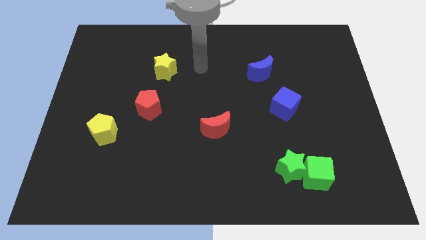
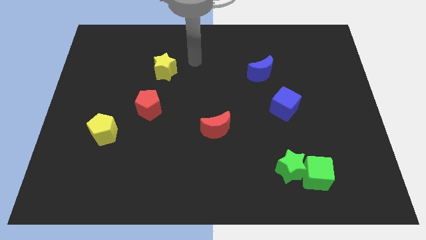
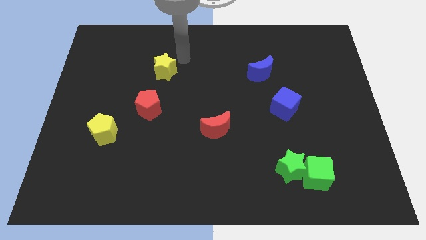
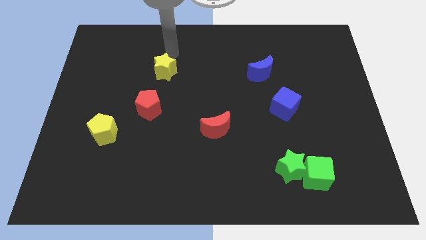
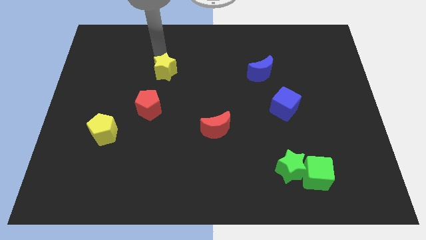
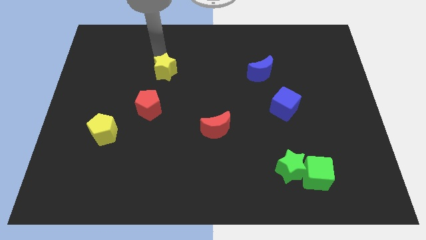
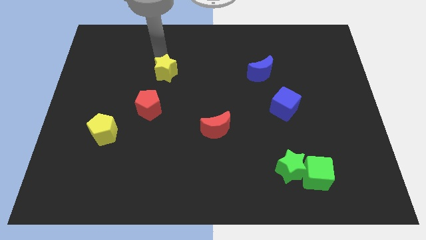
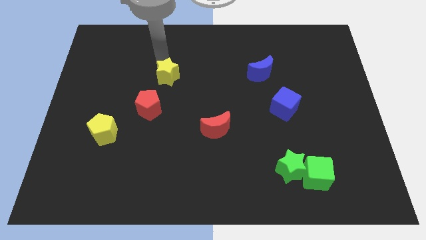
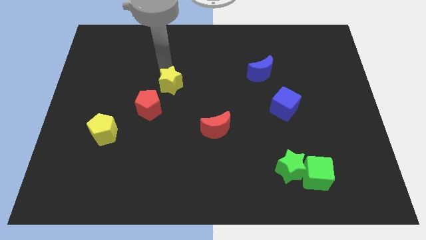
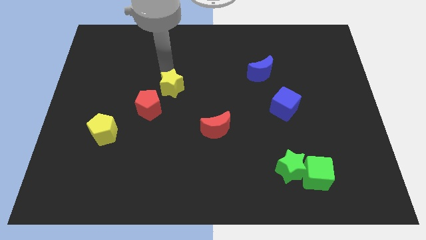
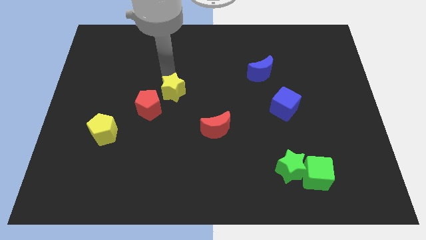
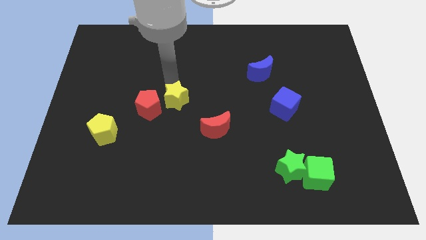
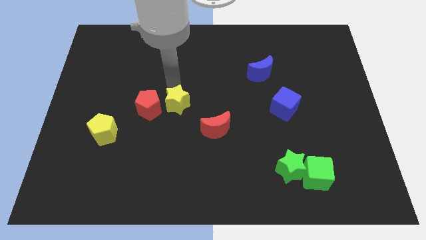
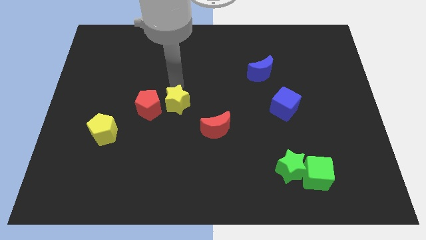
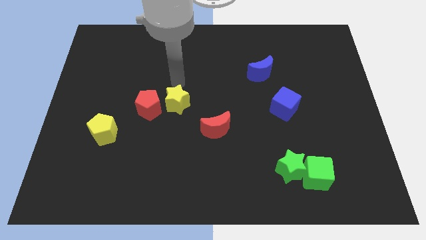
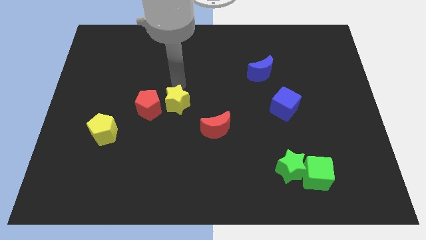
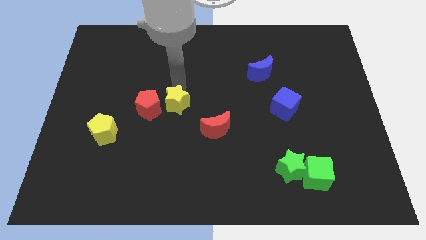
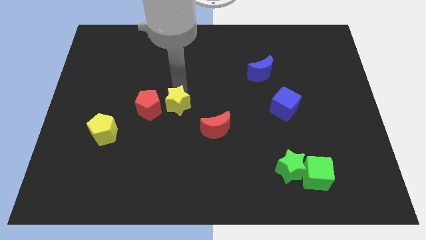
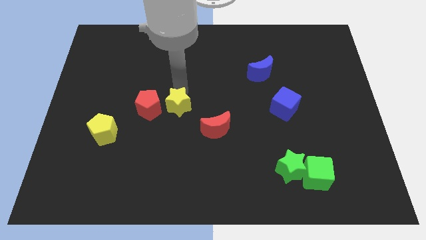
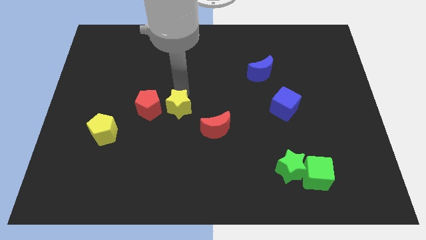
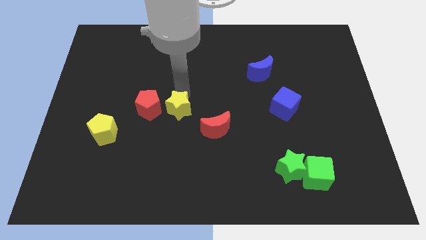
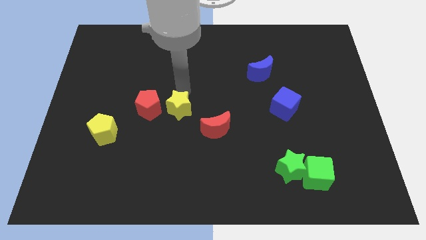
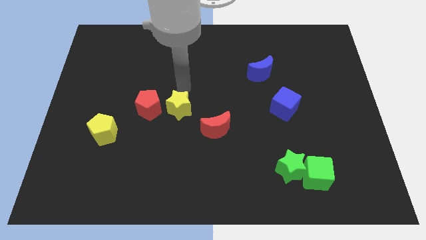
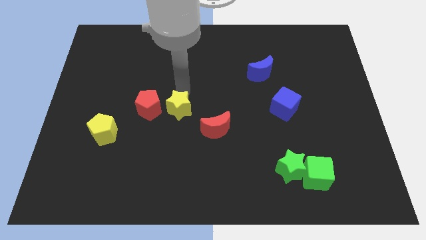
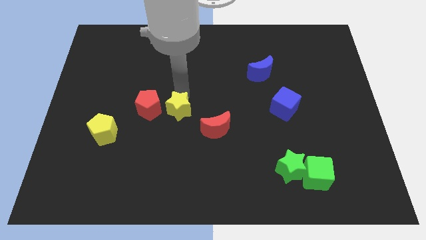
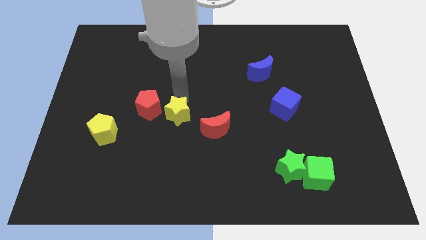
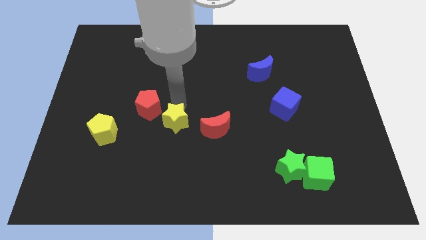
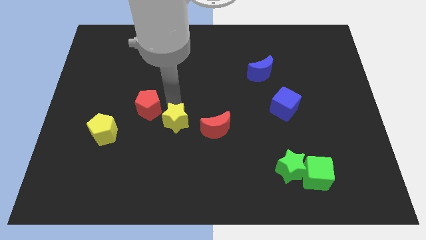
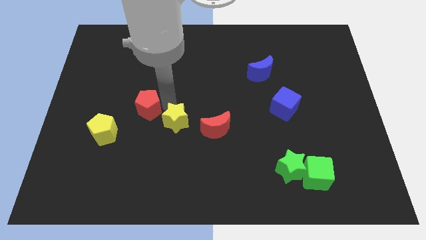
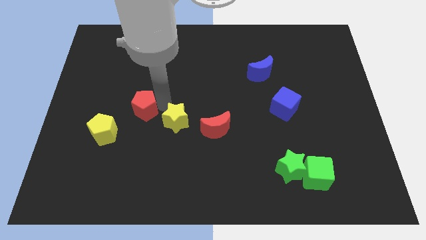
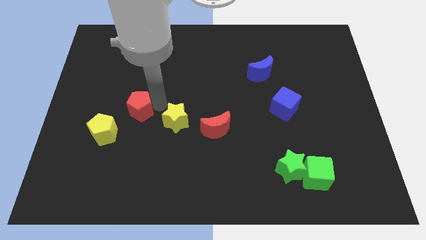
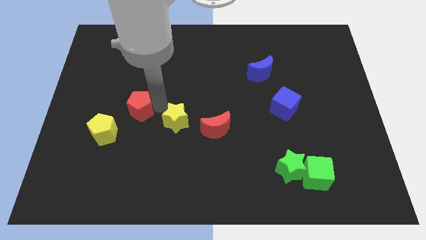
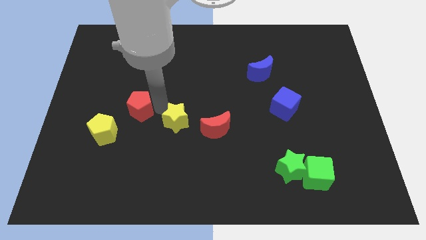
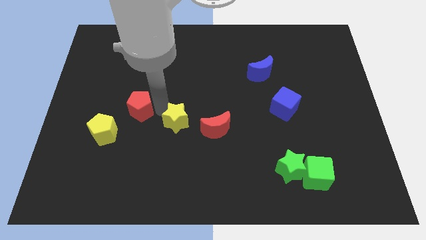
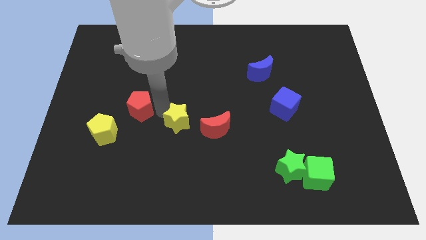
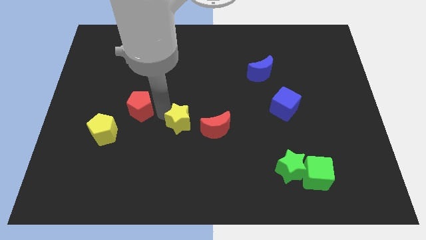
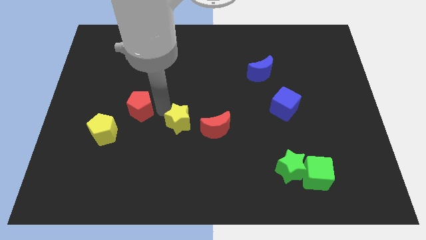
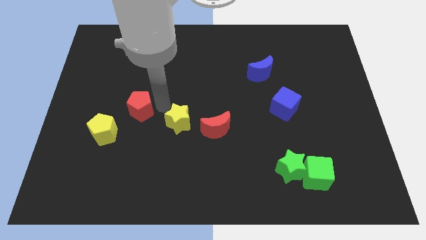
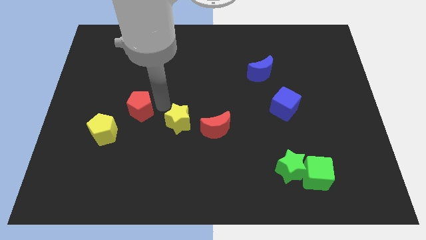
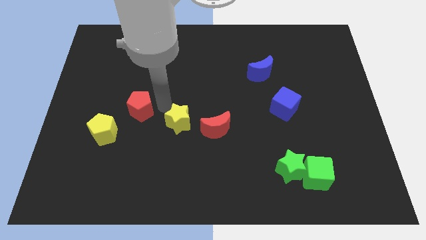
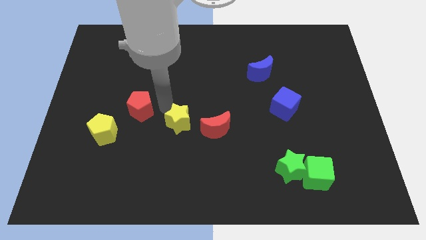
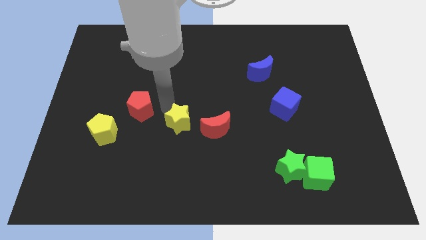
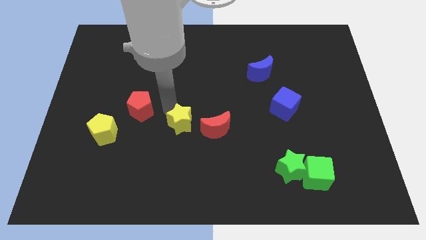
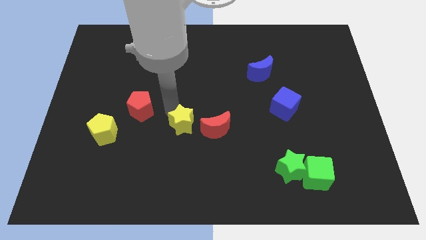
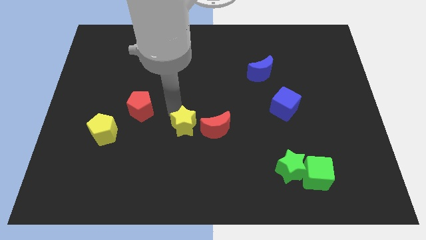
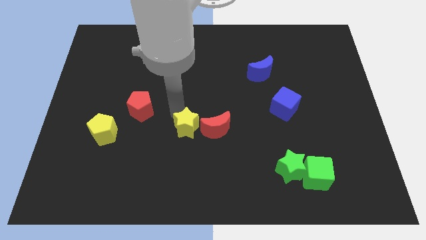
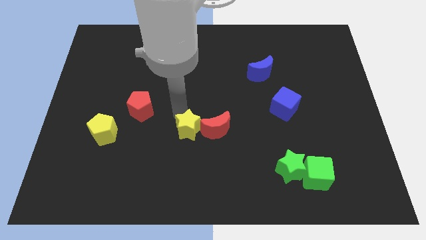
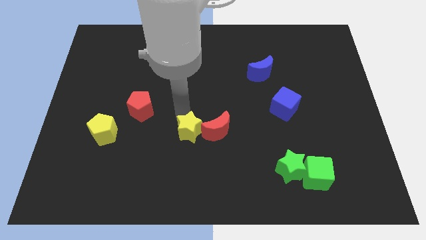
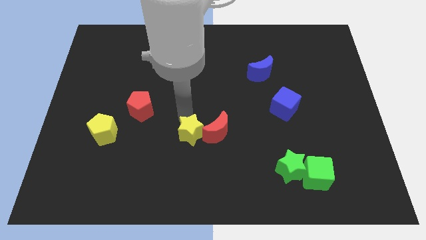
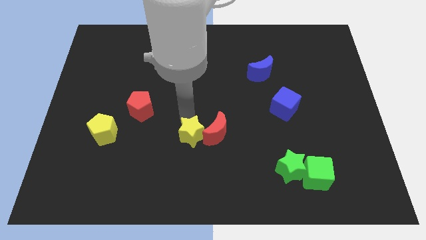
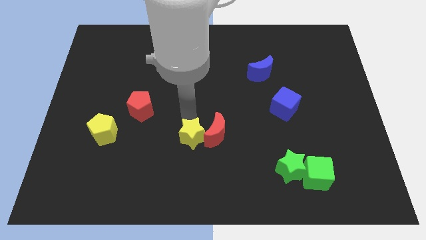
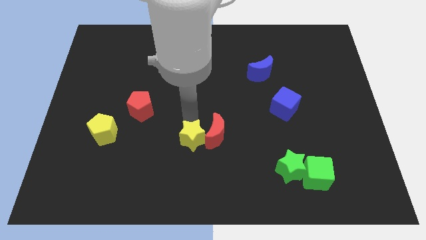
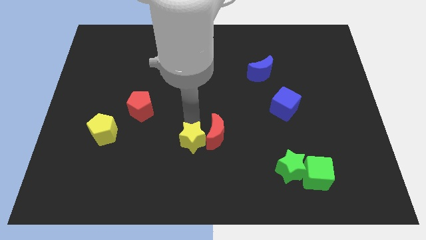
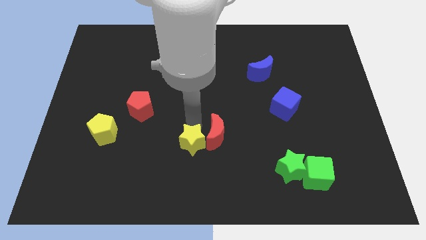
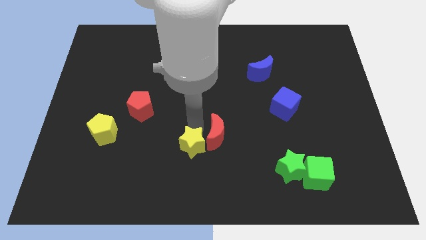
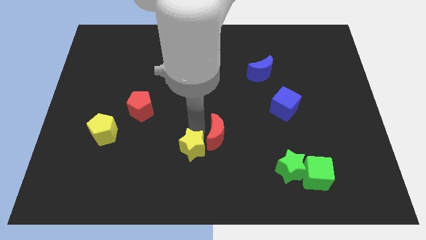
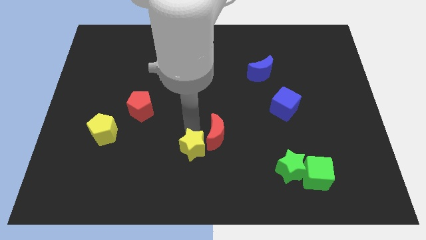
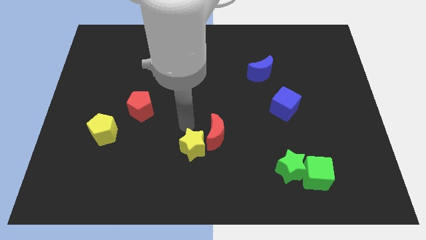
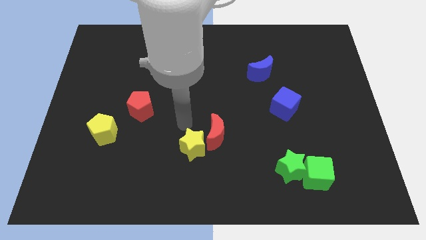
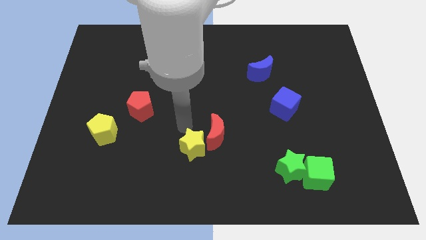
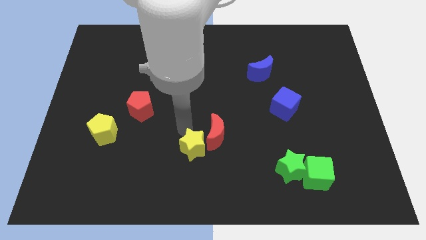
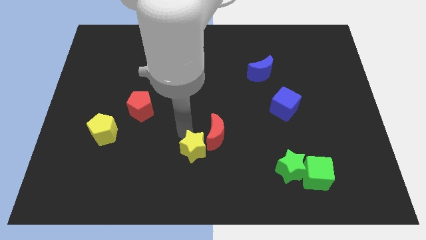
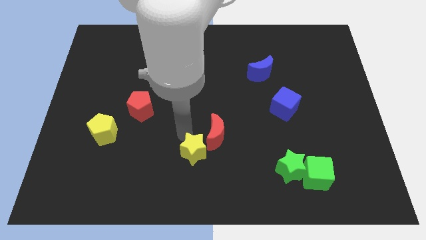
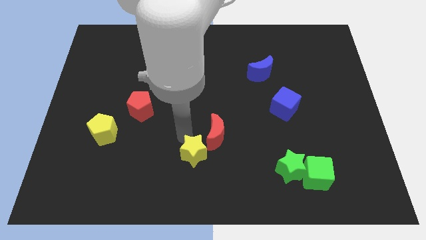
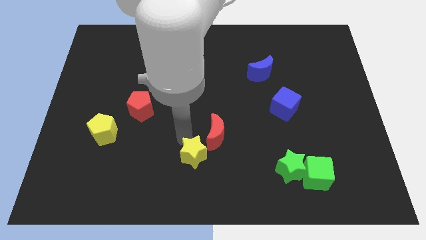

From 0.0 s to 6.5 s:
move the yellow star to the bottom side
